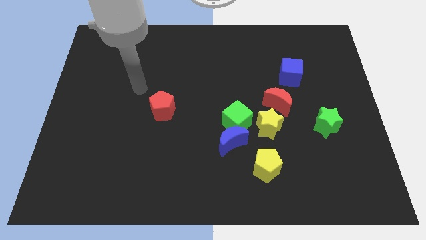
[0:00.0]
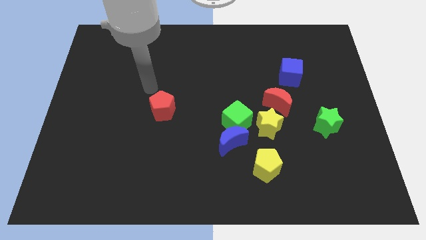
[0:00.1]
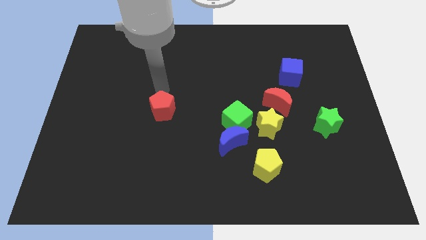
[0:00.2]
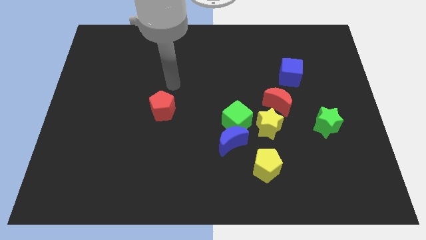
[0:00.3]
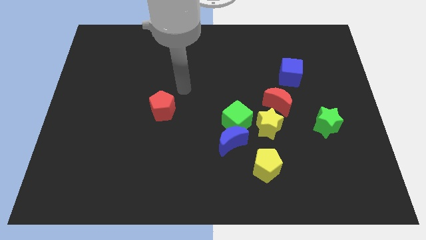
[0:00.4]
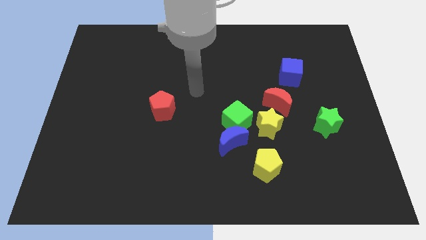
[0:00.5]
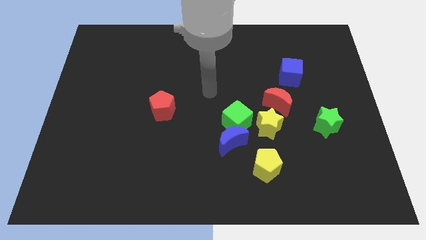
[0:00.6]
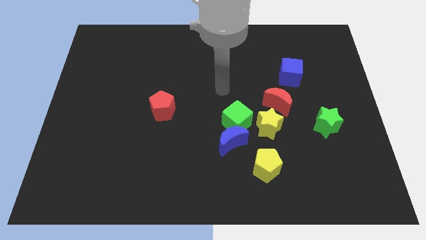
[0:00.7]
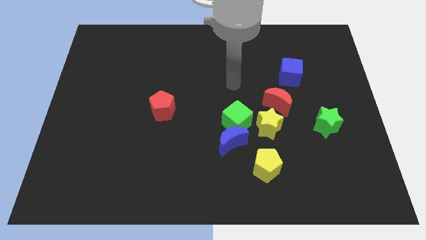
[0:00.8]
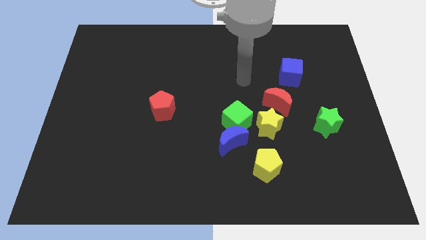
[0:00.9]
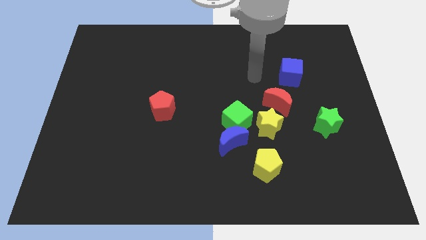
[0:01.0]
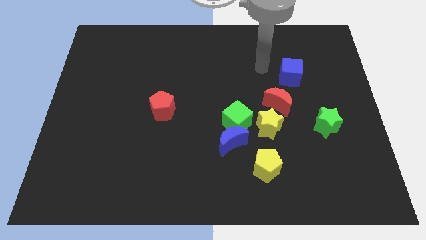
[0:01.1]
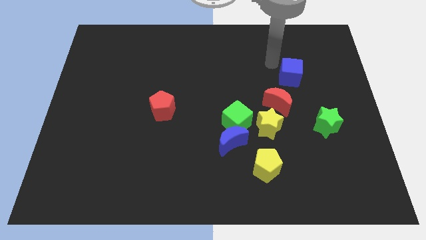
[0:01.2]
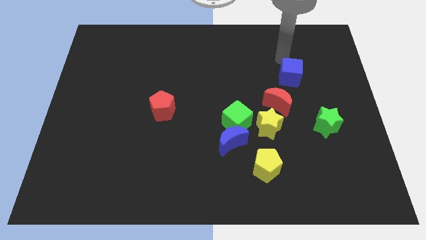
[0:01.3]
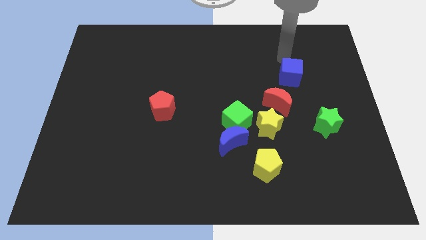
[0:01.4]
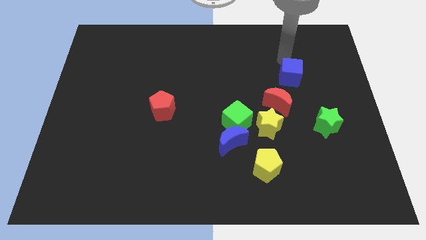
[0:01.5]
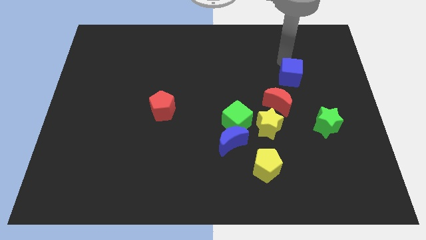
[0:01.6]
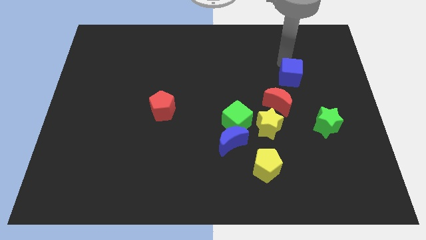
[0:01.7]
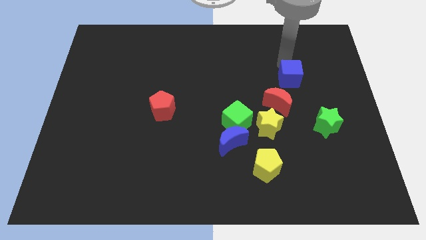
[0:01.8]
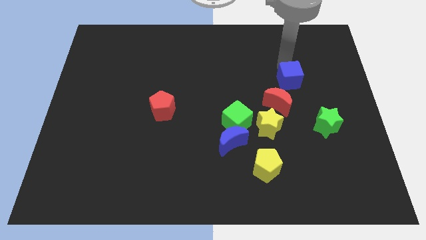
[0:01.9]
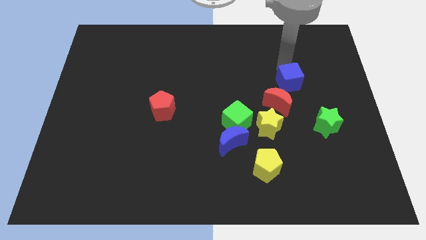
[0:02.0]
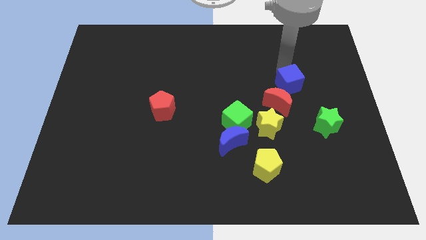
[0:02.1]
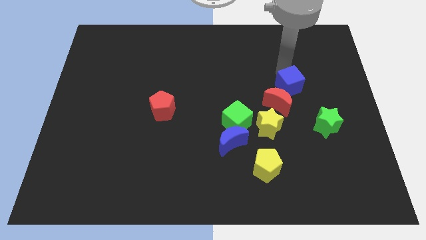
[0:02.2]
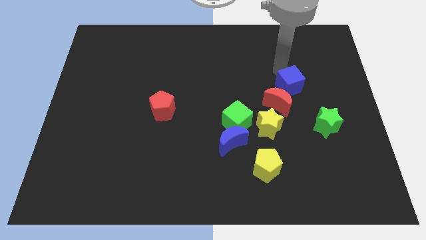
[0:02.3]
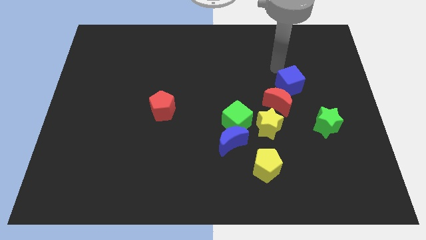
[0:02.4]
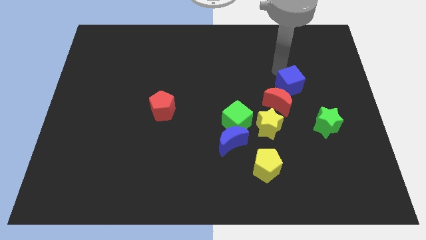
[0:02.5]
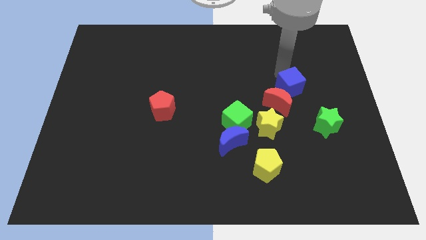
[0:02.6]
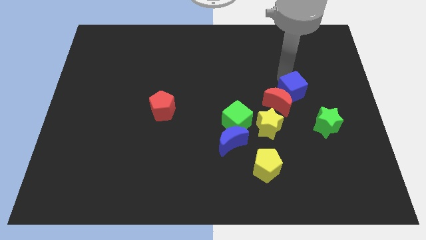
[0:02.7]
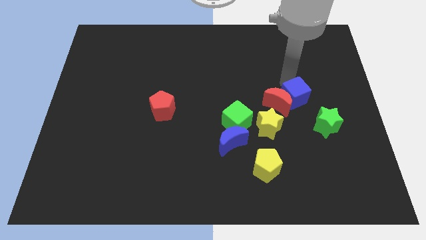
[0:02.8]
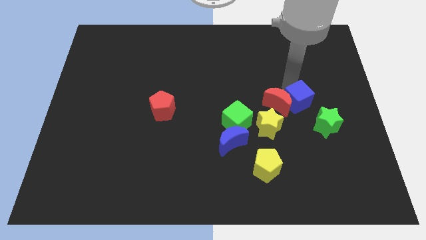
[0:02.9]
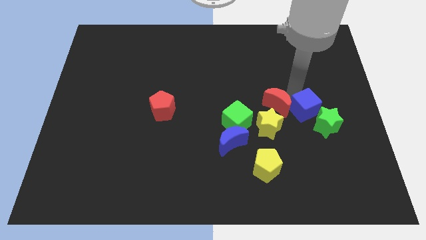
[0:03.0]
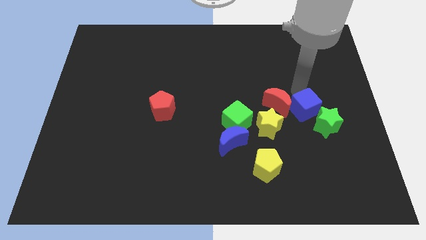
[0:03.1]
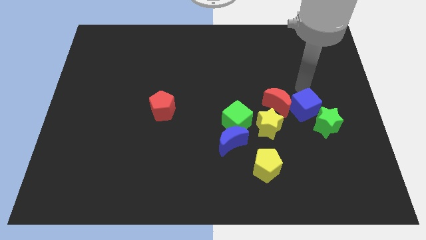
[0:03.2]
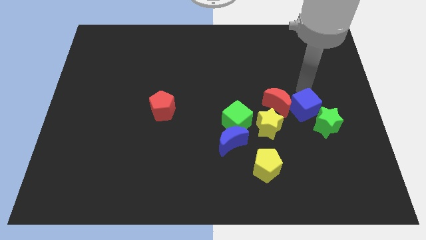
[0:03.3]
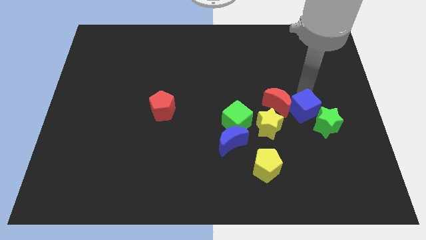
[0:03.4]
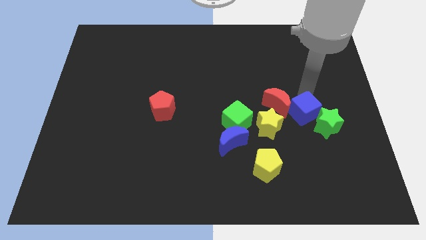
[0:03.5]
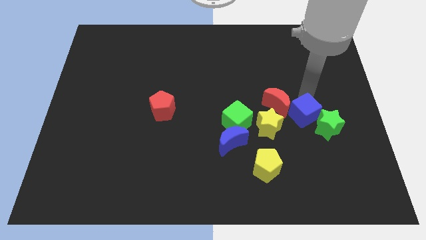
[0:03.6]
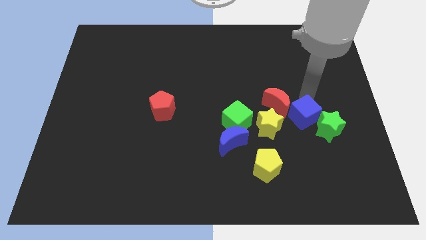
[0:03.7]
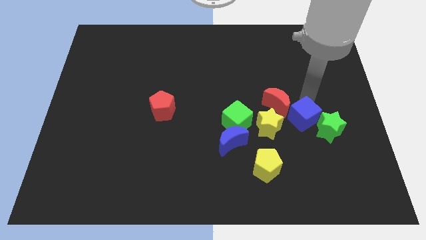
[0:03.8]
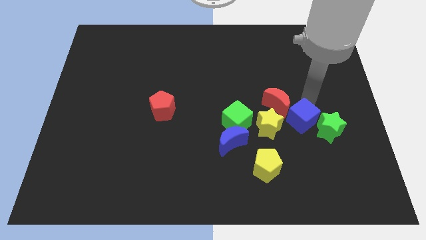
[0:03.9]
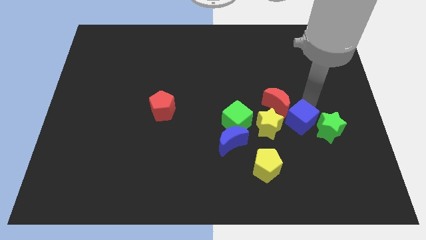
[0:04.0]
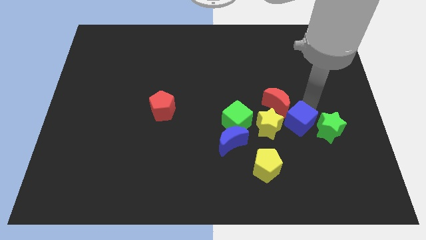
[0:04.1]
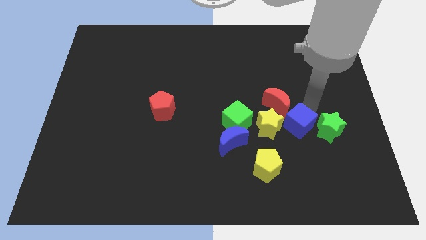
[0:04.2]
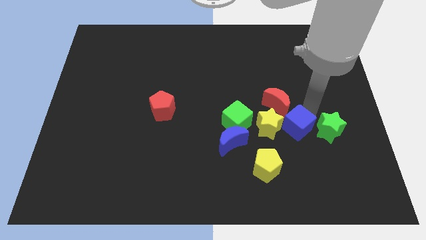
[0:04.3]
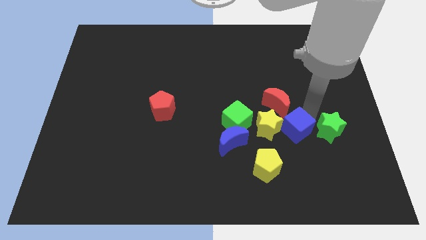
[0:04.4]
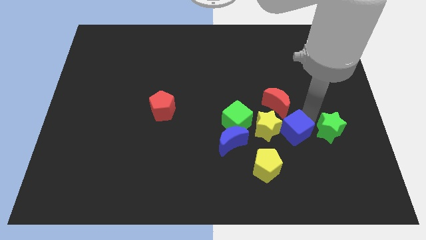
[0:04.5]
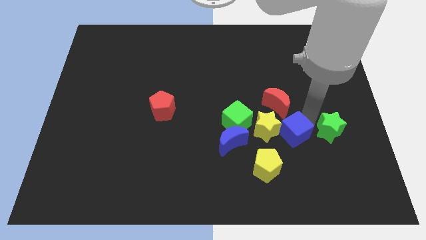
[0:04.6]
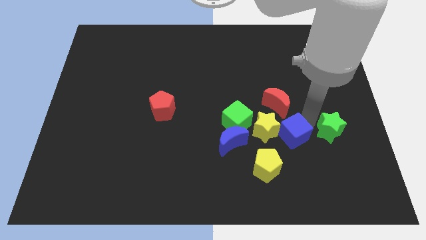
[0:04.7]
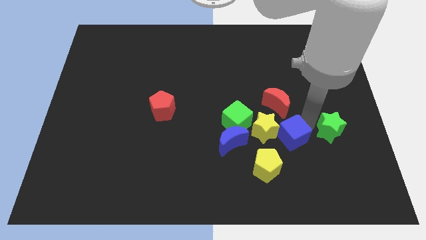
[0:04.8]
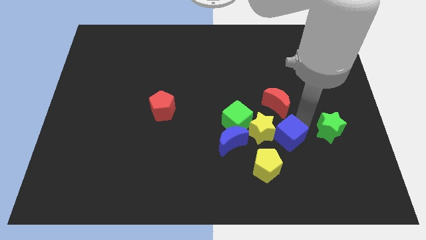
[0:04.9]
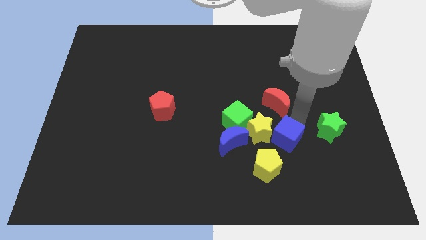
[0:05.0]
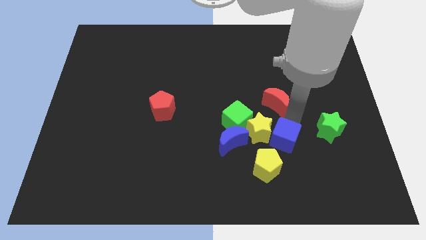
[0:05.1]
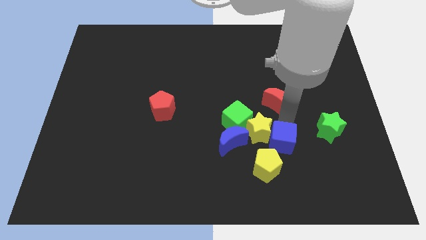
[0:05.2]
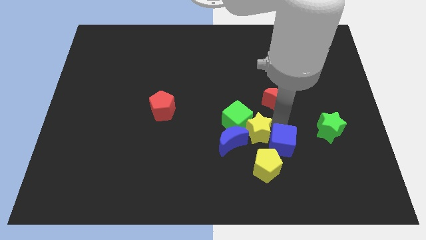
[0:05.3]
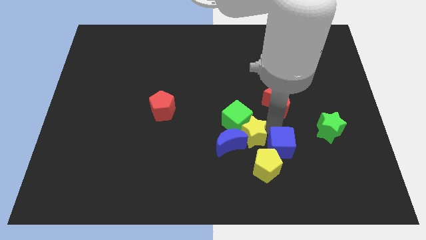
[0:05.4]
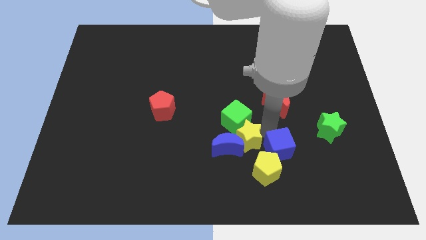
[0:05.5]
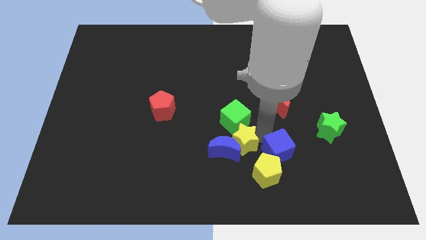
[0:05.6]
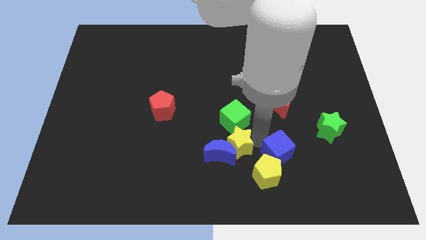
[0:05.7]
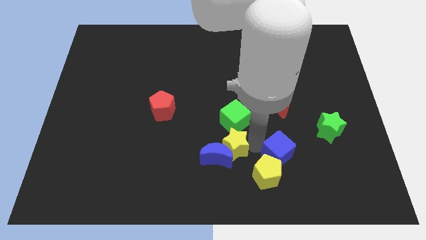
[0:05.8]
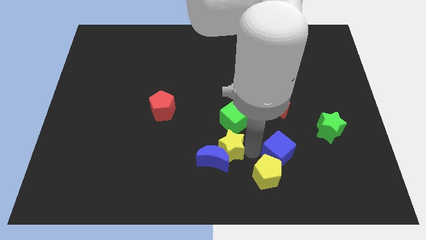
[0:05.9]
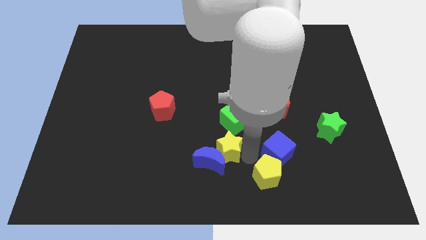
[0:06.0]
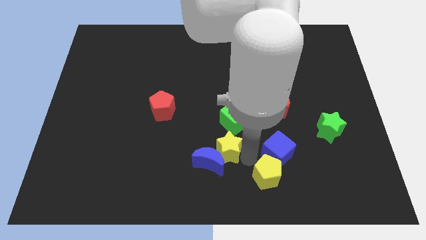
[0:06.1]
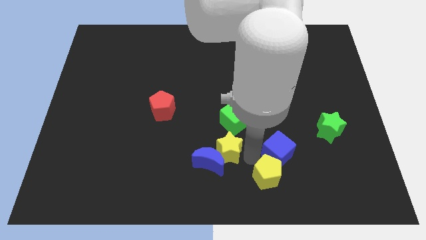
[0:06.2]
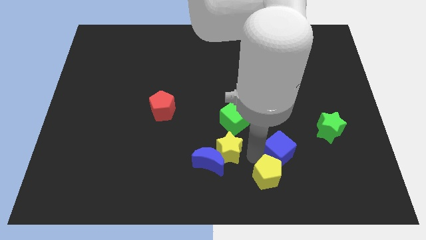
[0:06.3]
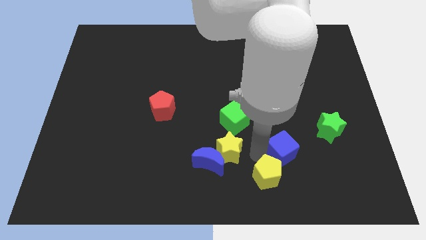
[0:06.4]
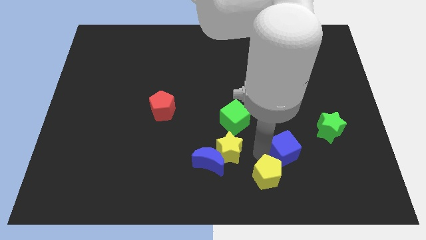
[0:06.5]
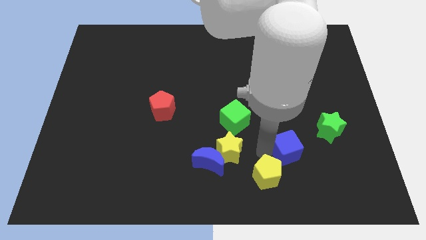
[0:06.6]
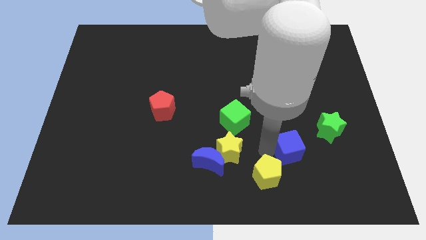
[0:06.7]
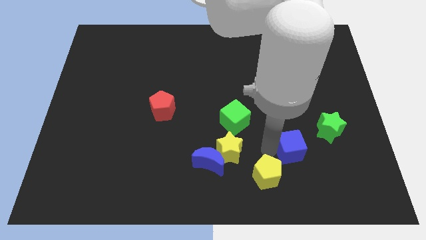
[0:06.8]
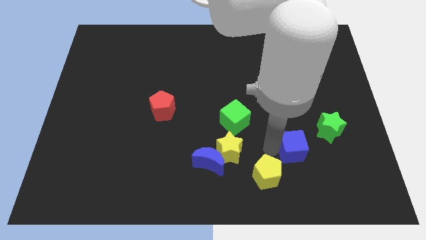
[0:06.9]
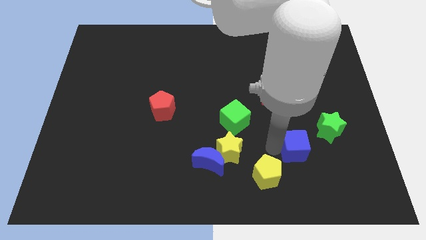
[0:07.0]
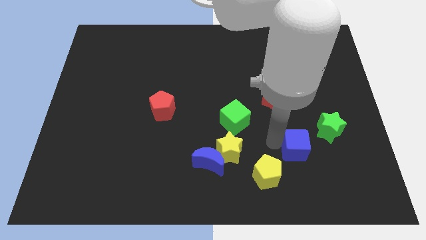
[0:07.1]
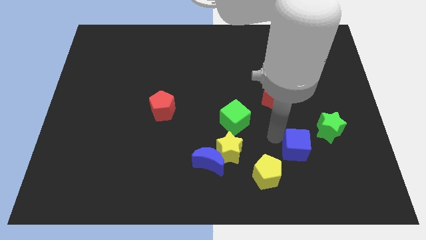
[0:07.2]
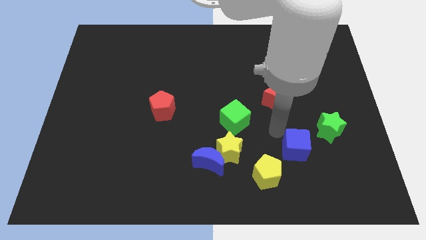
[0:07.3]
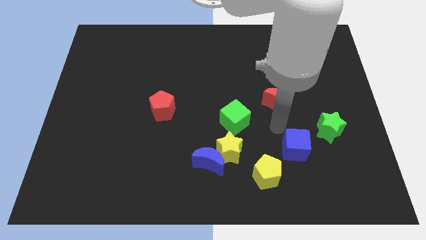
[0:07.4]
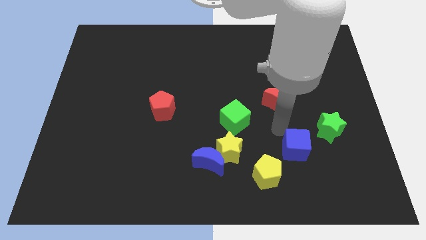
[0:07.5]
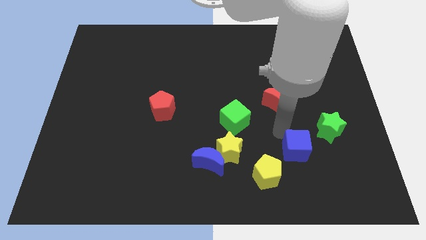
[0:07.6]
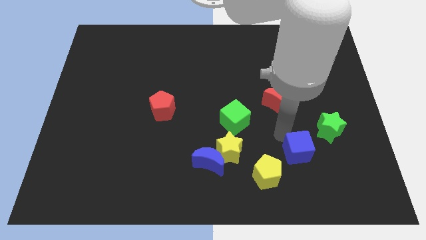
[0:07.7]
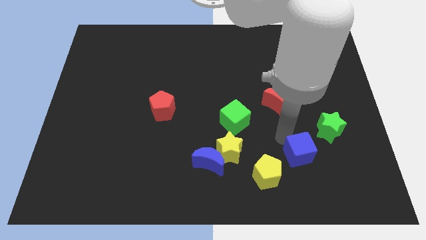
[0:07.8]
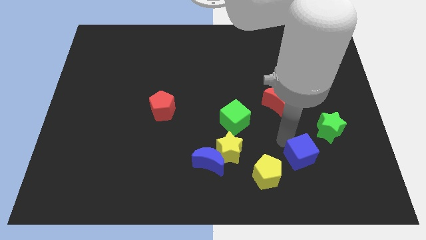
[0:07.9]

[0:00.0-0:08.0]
put the blue cube right of the yellow pentagon
